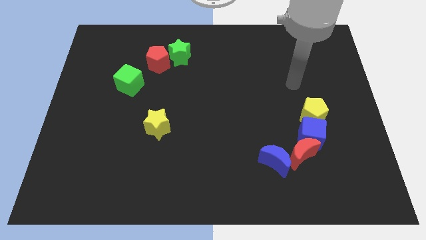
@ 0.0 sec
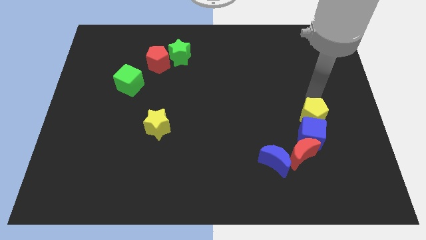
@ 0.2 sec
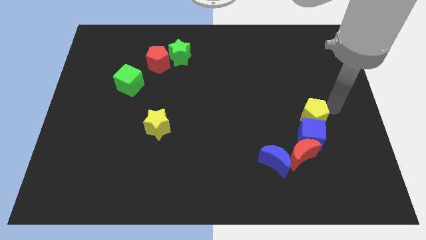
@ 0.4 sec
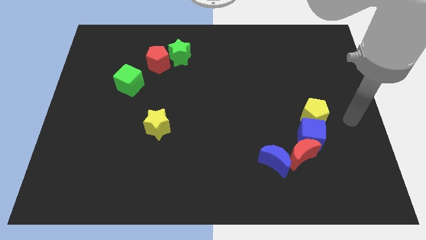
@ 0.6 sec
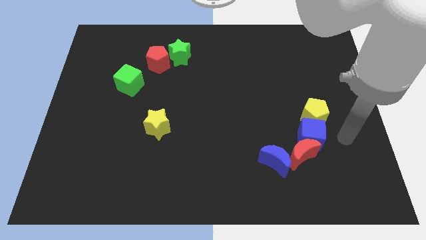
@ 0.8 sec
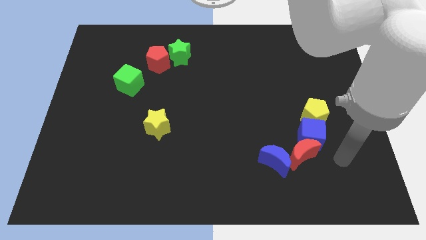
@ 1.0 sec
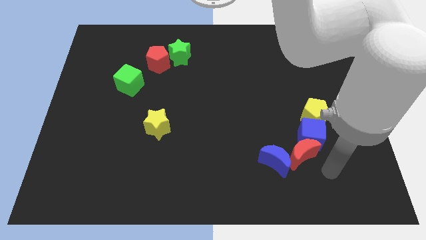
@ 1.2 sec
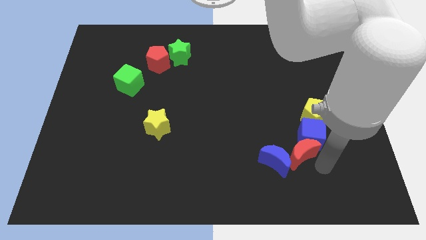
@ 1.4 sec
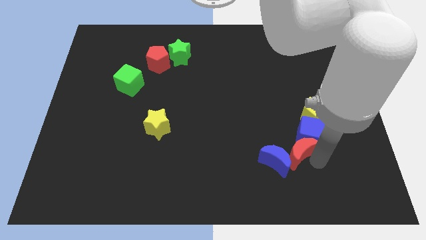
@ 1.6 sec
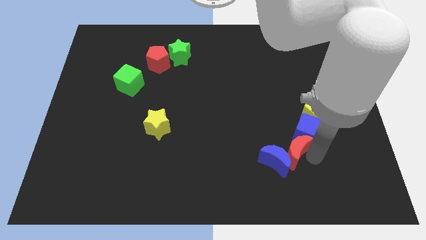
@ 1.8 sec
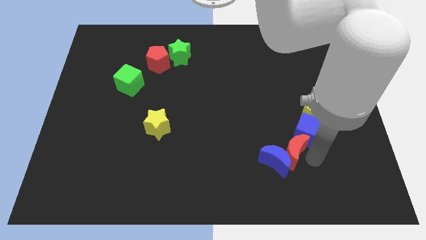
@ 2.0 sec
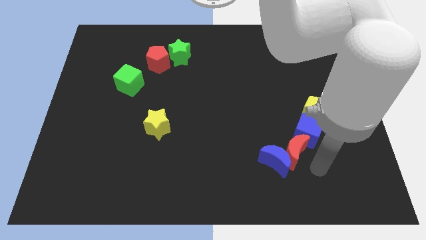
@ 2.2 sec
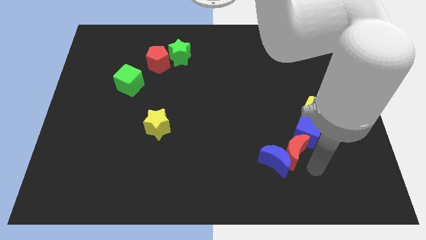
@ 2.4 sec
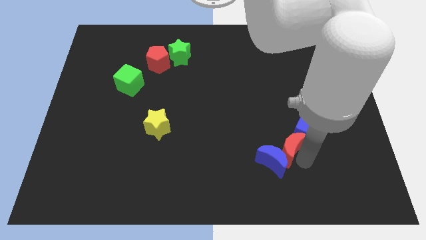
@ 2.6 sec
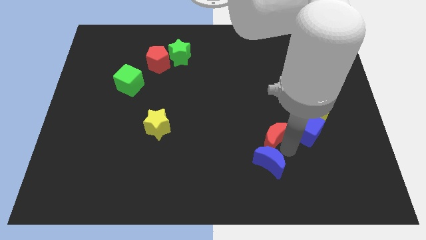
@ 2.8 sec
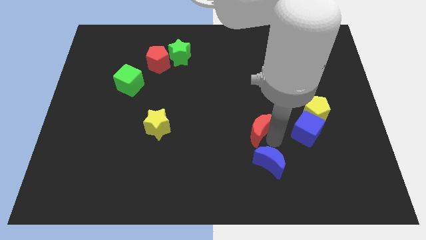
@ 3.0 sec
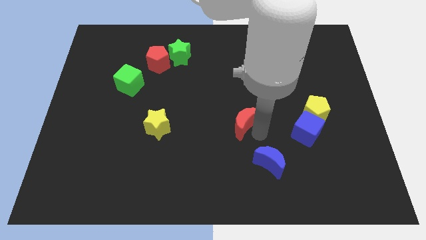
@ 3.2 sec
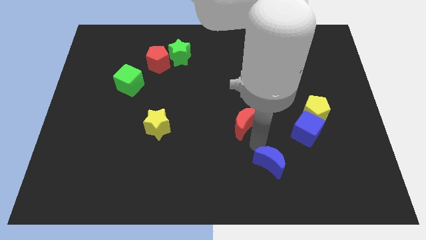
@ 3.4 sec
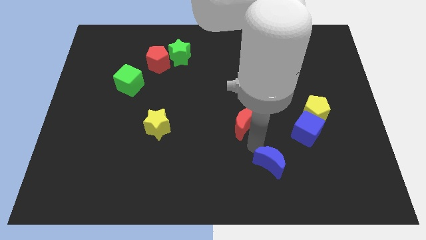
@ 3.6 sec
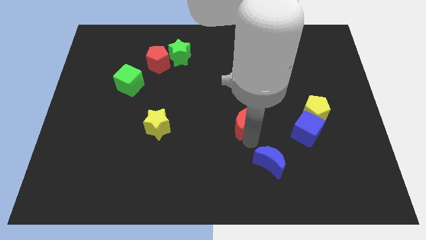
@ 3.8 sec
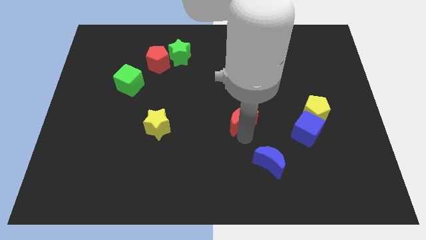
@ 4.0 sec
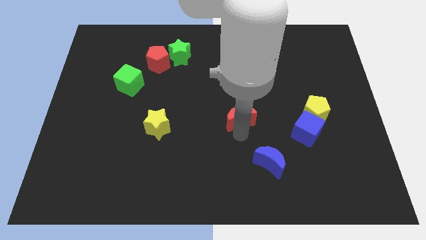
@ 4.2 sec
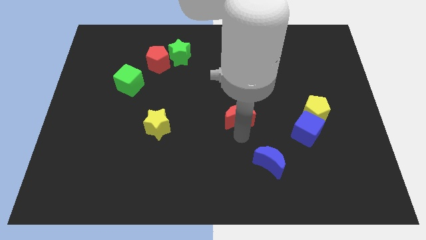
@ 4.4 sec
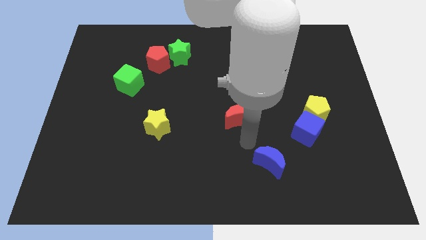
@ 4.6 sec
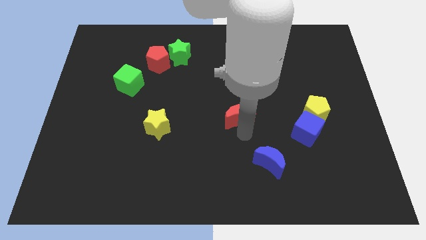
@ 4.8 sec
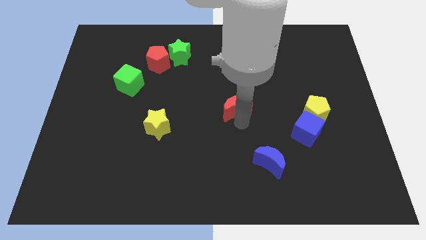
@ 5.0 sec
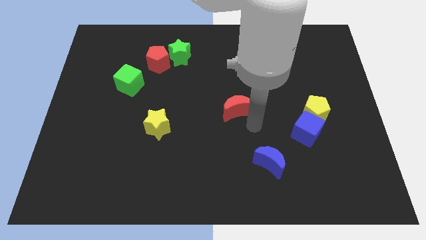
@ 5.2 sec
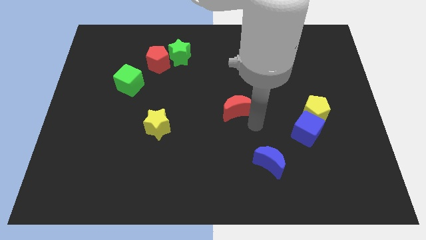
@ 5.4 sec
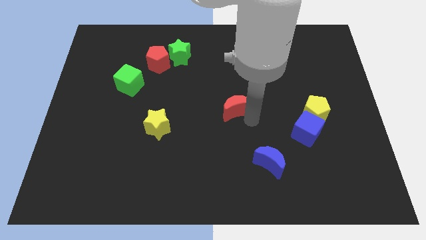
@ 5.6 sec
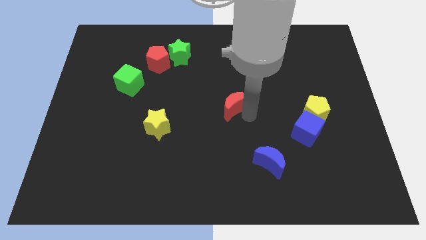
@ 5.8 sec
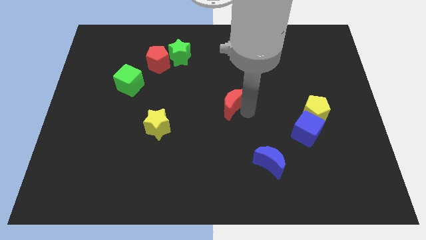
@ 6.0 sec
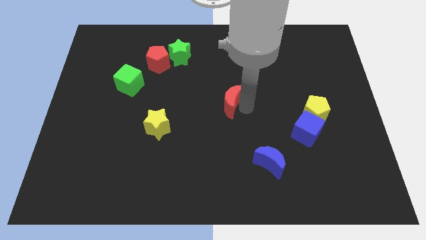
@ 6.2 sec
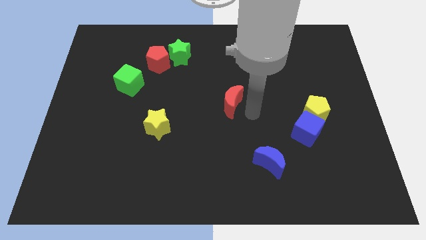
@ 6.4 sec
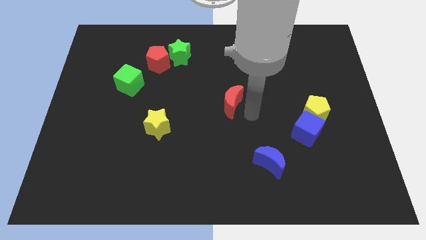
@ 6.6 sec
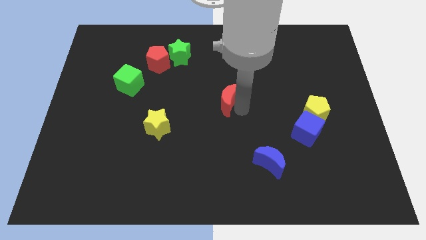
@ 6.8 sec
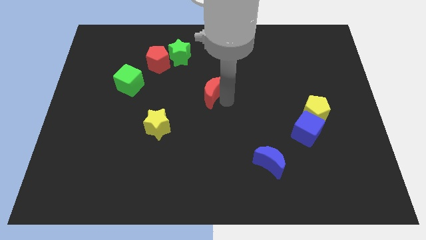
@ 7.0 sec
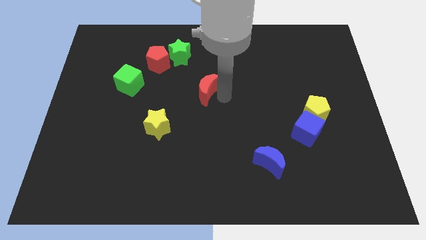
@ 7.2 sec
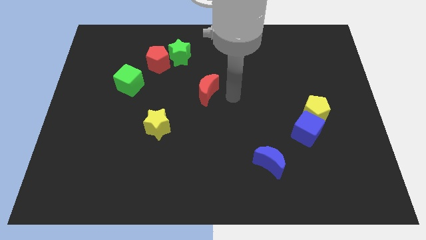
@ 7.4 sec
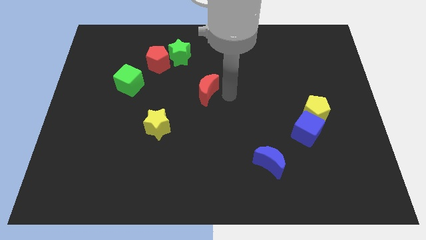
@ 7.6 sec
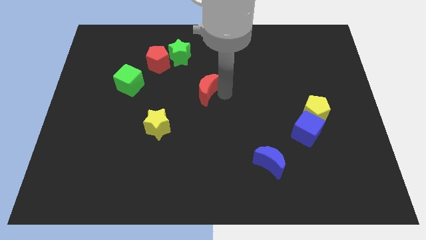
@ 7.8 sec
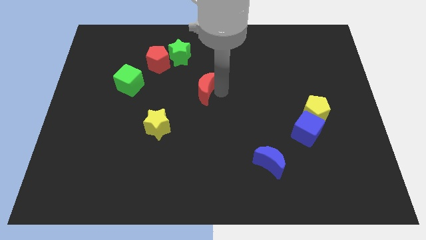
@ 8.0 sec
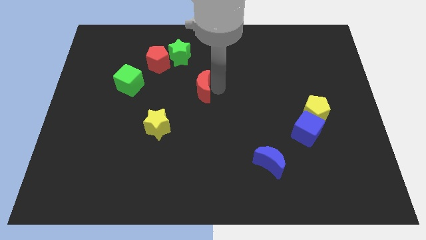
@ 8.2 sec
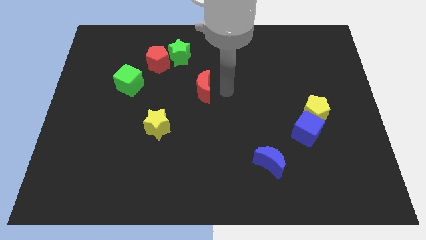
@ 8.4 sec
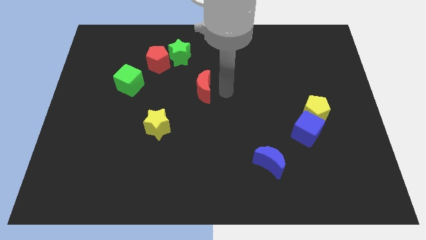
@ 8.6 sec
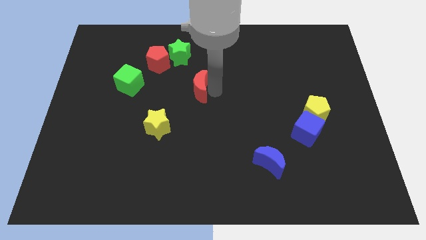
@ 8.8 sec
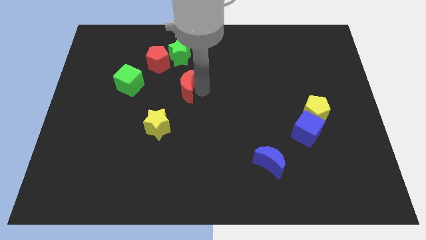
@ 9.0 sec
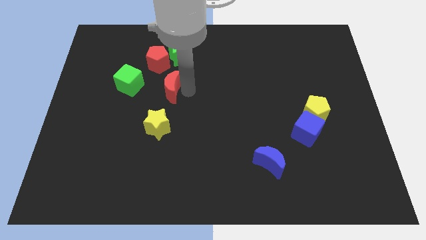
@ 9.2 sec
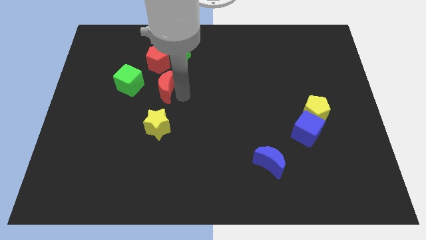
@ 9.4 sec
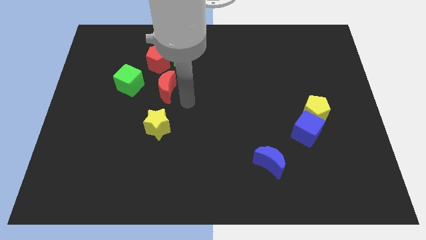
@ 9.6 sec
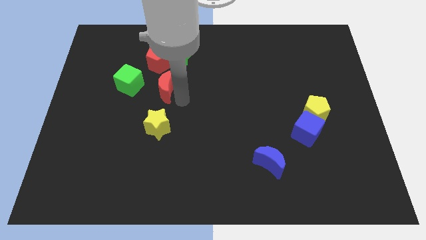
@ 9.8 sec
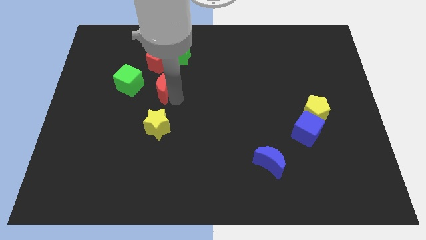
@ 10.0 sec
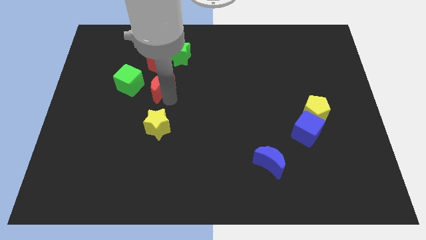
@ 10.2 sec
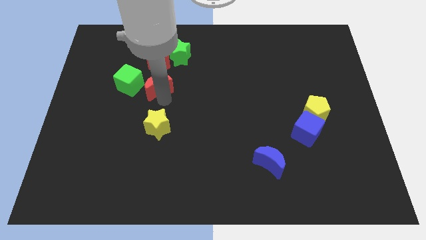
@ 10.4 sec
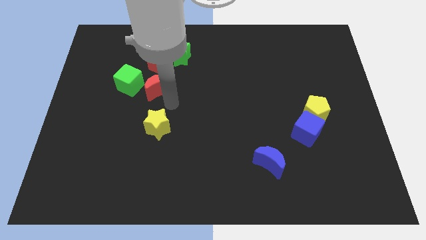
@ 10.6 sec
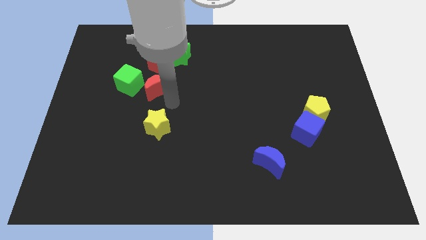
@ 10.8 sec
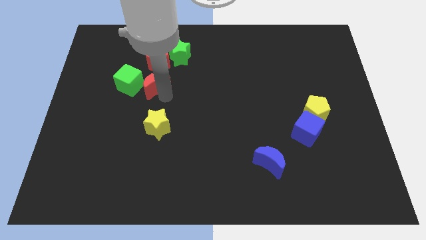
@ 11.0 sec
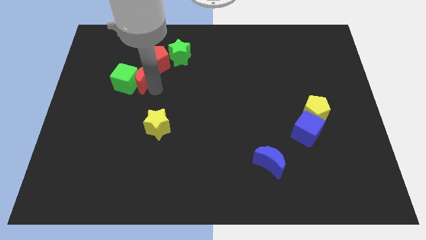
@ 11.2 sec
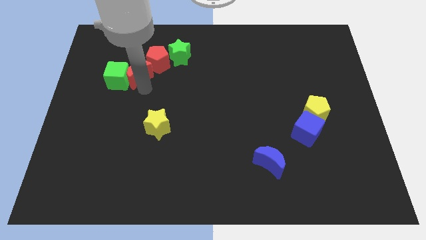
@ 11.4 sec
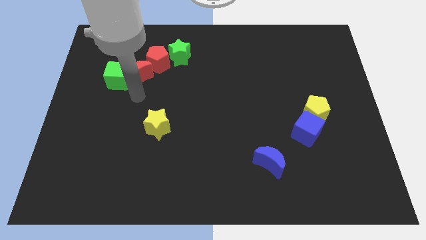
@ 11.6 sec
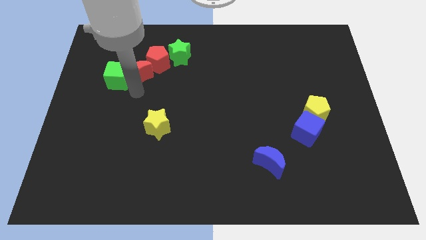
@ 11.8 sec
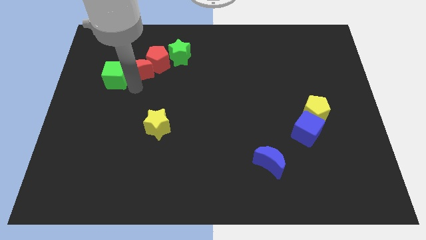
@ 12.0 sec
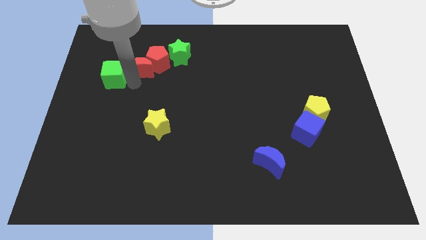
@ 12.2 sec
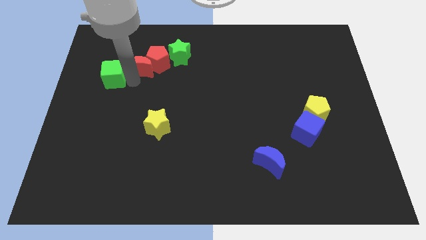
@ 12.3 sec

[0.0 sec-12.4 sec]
slide the red moon just left of the green star

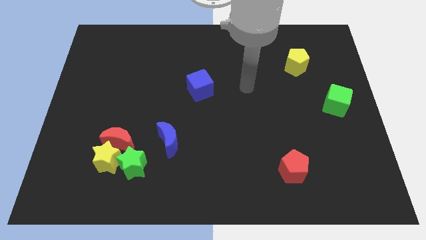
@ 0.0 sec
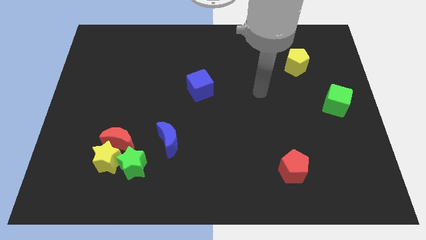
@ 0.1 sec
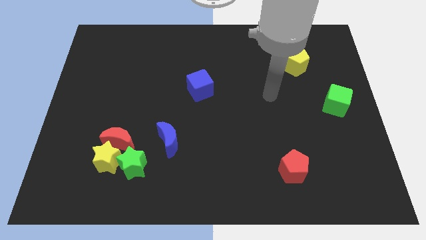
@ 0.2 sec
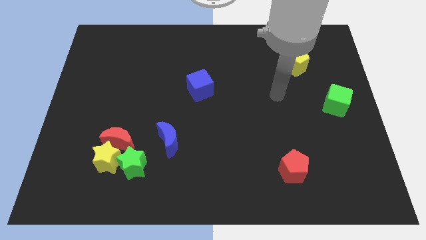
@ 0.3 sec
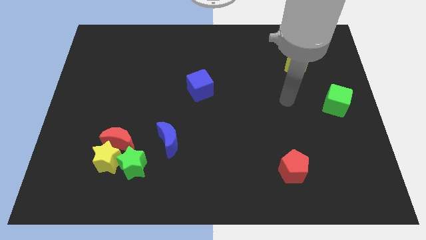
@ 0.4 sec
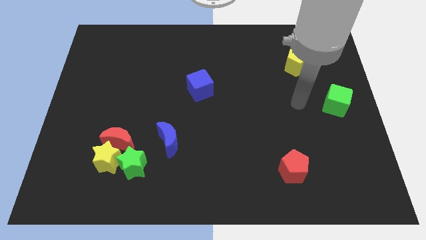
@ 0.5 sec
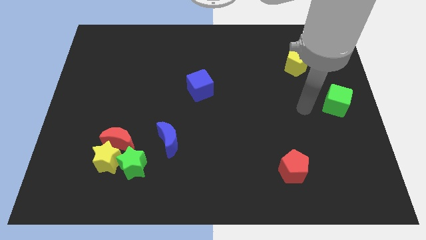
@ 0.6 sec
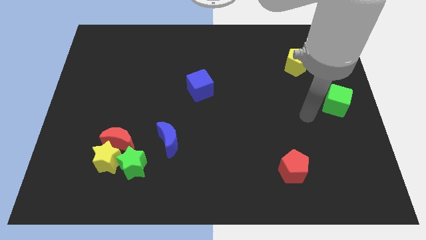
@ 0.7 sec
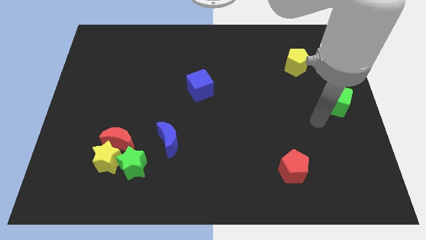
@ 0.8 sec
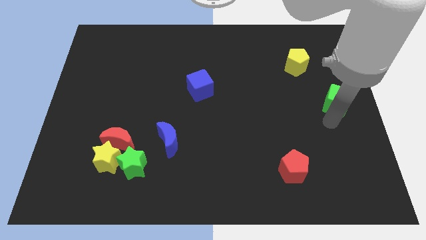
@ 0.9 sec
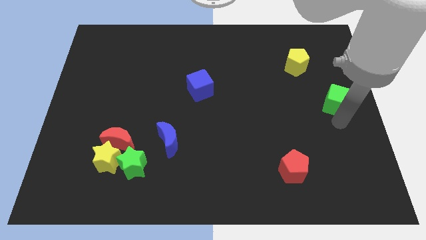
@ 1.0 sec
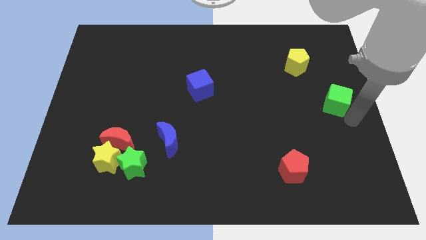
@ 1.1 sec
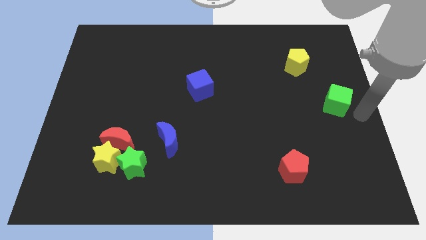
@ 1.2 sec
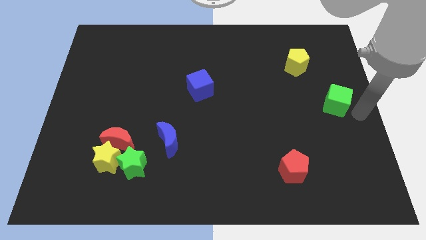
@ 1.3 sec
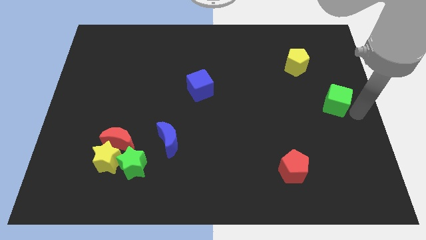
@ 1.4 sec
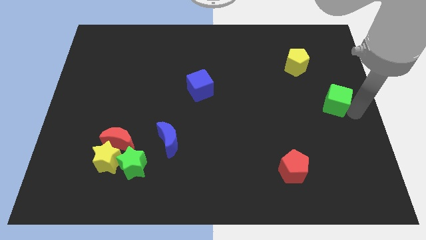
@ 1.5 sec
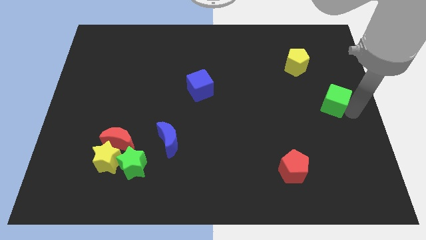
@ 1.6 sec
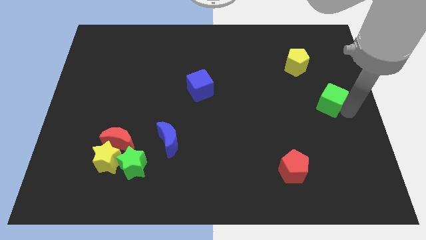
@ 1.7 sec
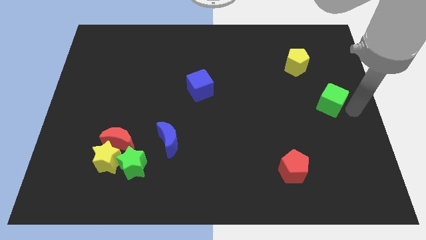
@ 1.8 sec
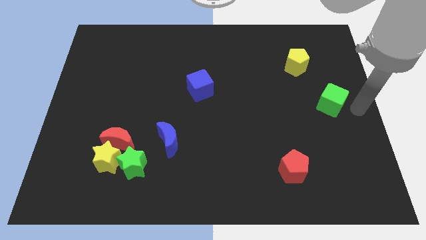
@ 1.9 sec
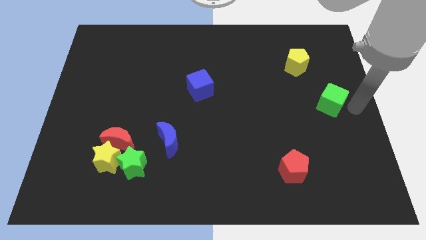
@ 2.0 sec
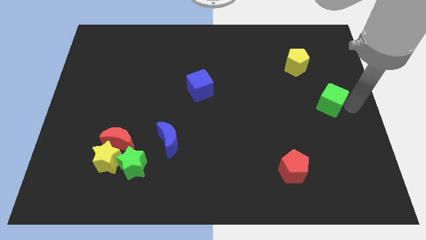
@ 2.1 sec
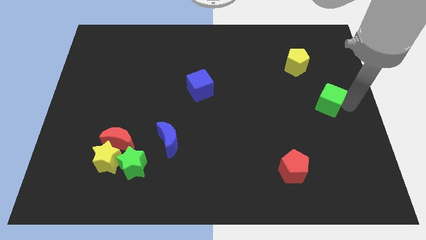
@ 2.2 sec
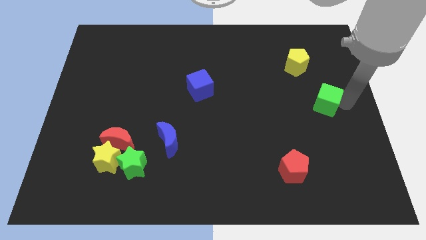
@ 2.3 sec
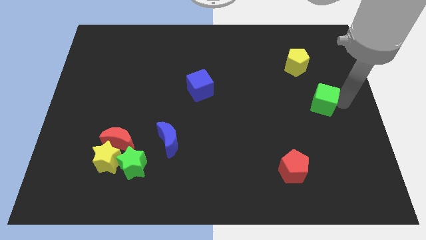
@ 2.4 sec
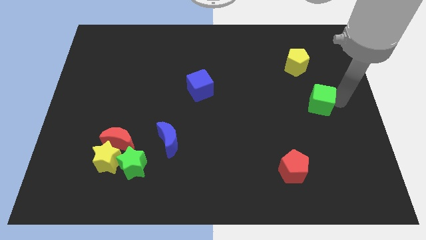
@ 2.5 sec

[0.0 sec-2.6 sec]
slide the green cube below the yellow pentagon
